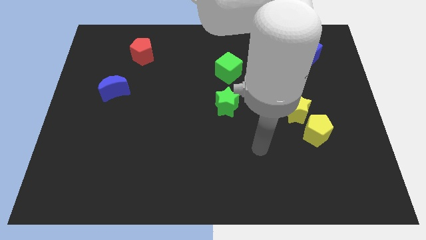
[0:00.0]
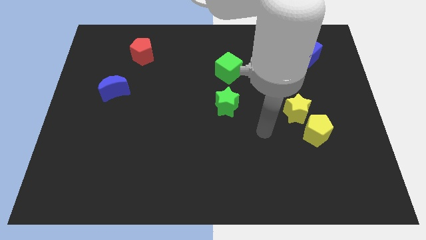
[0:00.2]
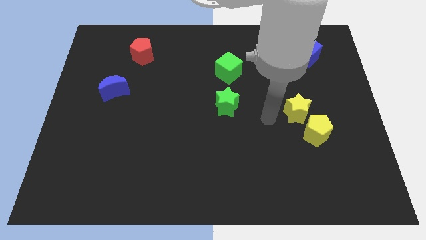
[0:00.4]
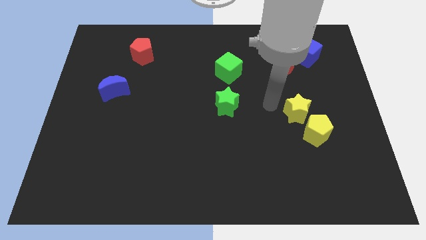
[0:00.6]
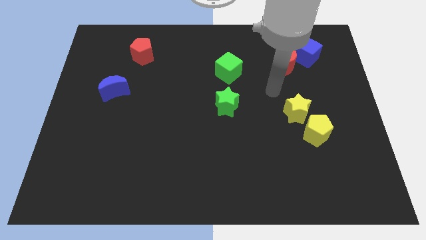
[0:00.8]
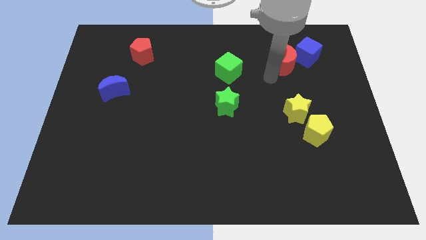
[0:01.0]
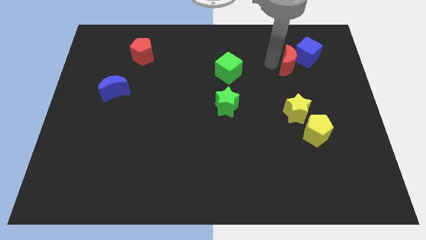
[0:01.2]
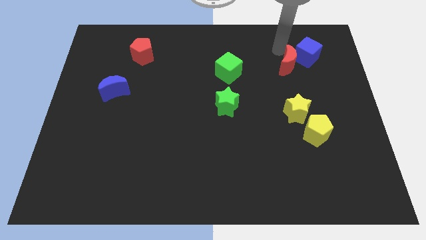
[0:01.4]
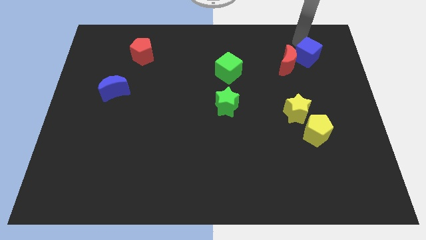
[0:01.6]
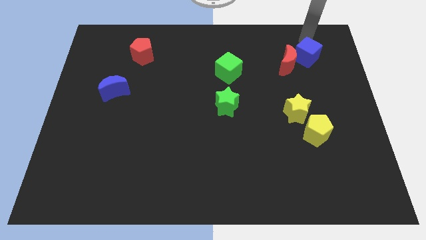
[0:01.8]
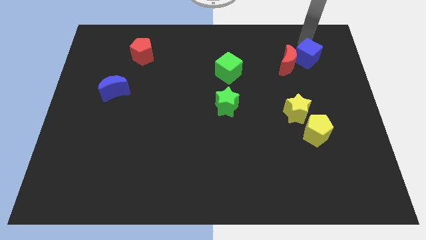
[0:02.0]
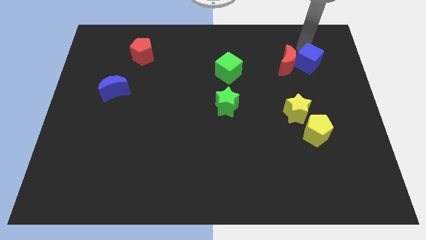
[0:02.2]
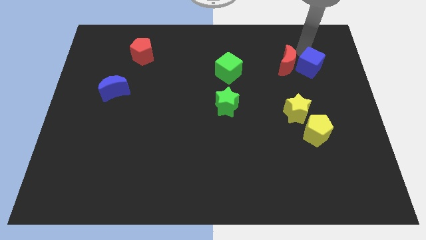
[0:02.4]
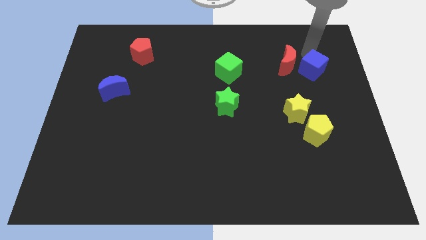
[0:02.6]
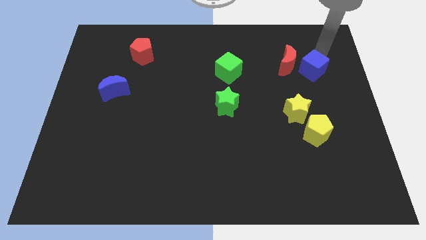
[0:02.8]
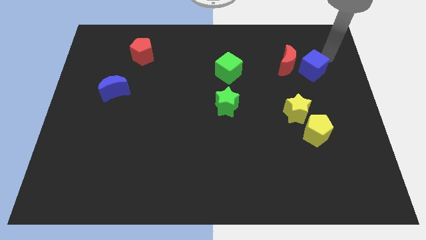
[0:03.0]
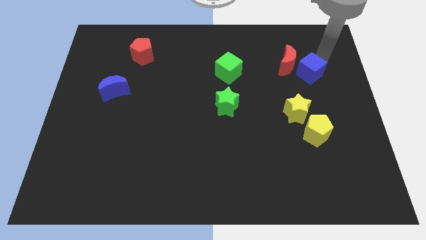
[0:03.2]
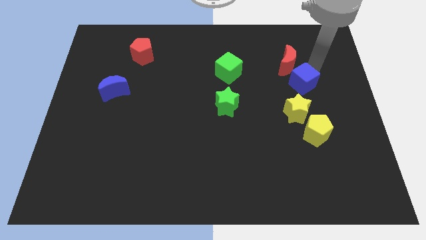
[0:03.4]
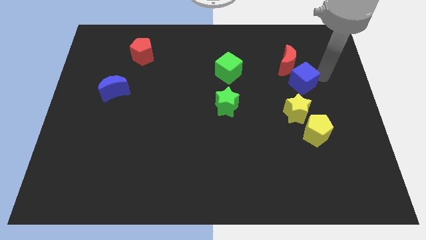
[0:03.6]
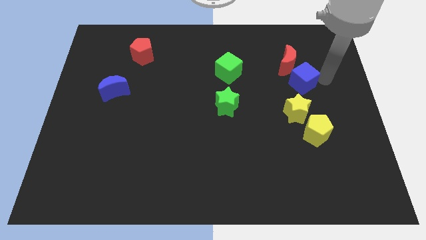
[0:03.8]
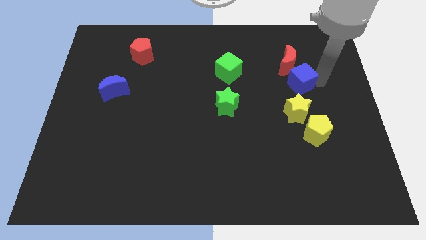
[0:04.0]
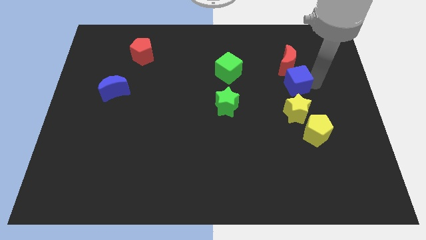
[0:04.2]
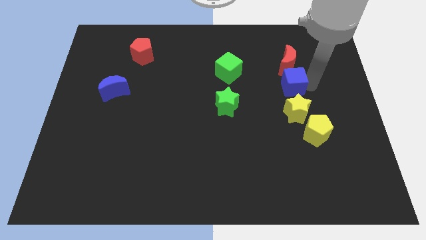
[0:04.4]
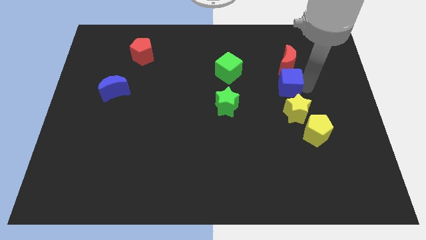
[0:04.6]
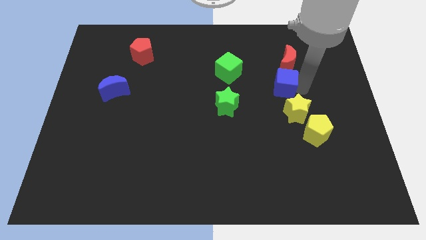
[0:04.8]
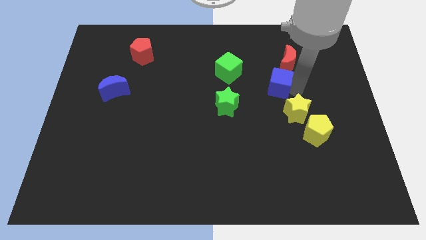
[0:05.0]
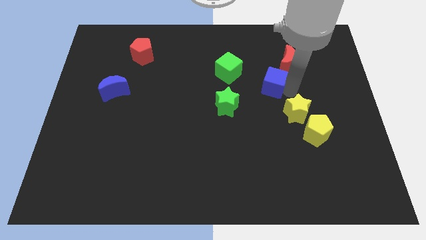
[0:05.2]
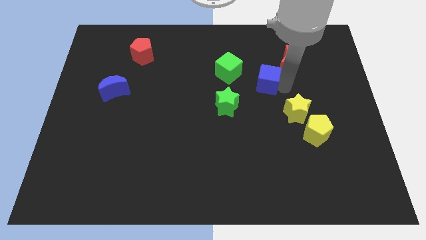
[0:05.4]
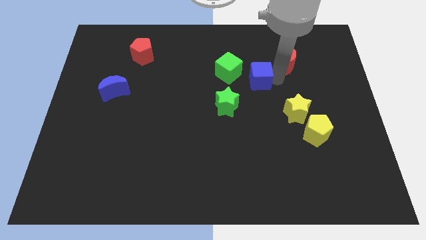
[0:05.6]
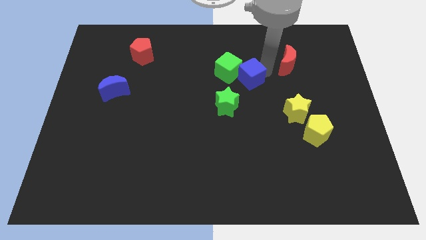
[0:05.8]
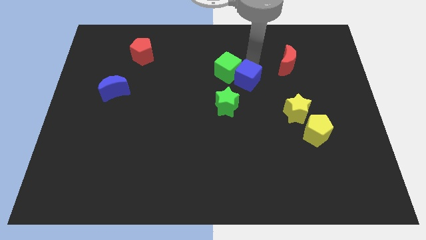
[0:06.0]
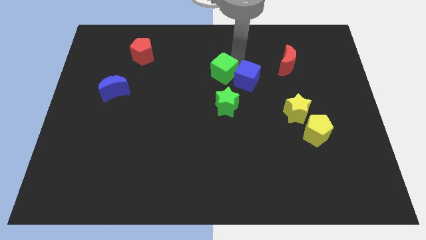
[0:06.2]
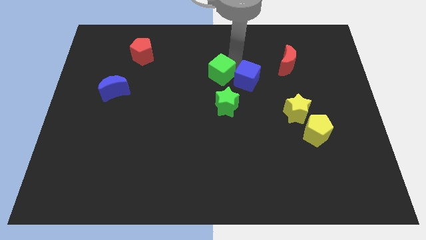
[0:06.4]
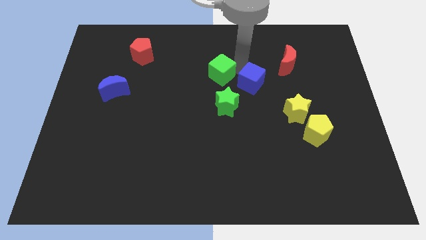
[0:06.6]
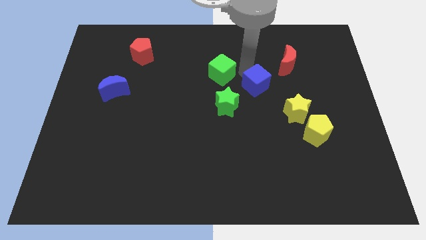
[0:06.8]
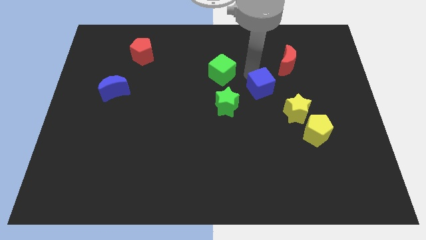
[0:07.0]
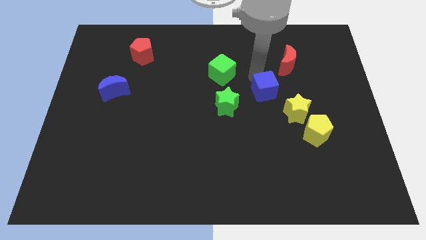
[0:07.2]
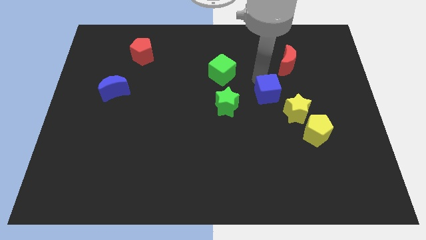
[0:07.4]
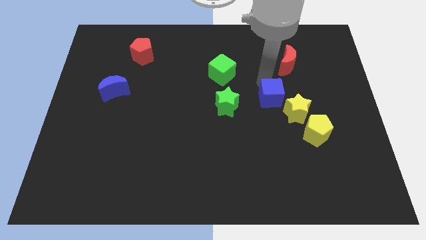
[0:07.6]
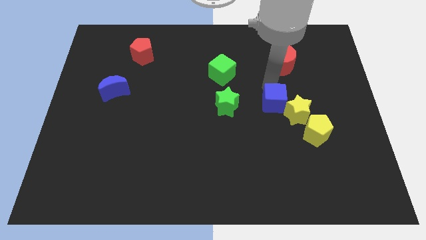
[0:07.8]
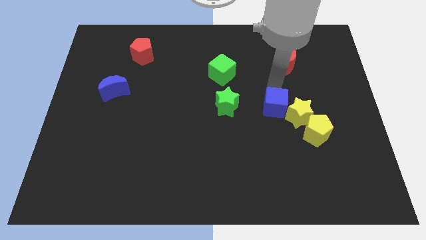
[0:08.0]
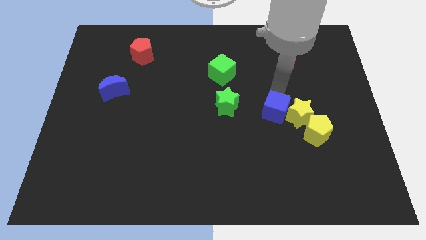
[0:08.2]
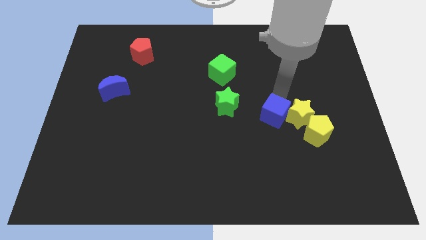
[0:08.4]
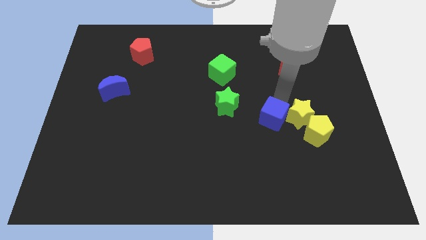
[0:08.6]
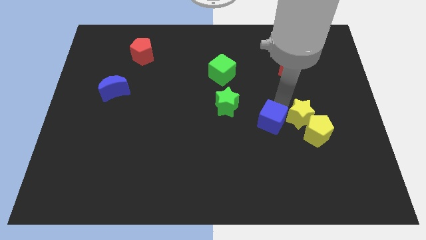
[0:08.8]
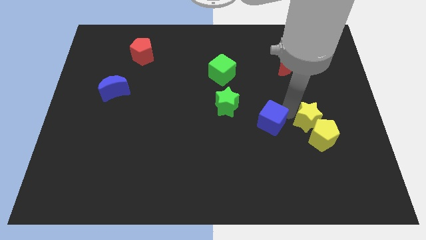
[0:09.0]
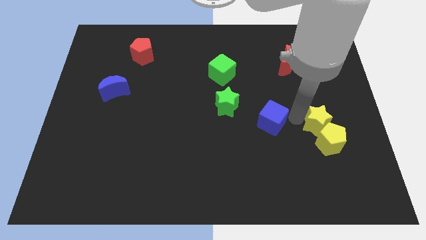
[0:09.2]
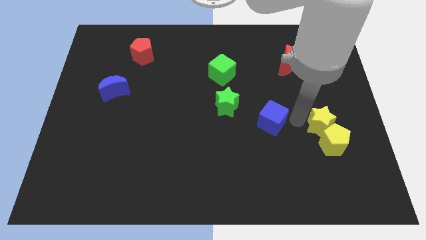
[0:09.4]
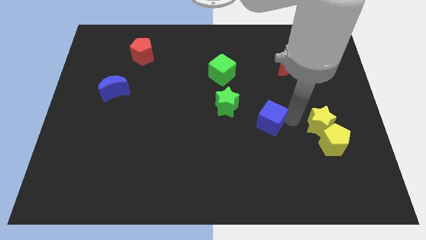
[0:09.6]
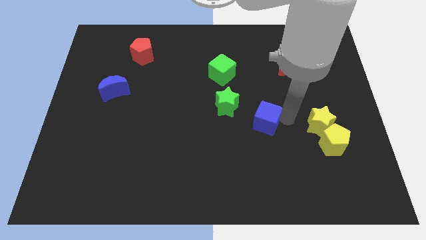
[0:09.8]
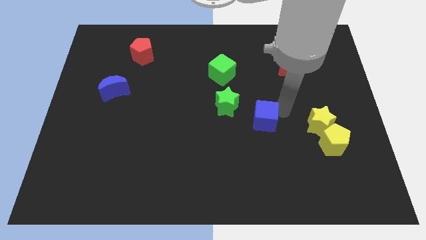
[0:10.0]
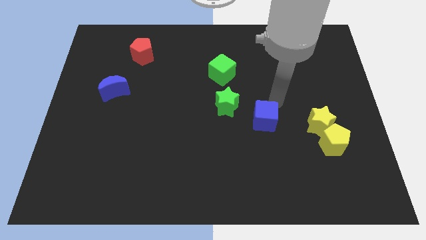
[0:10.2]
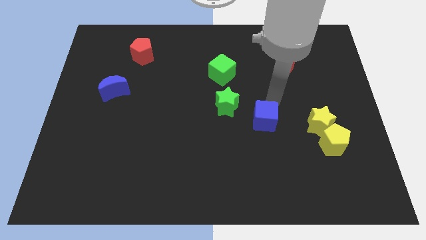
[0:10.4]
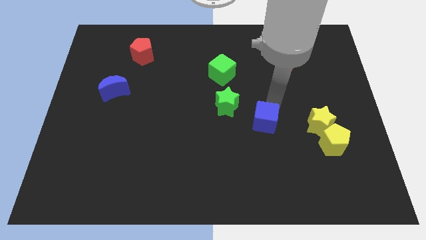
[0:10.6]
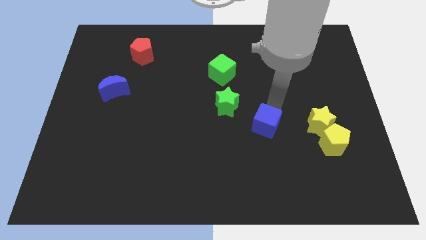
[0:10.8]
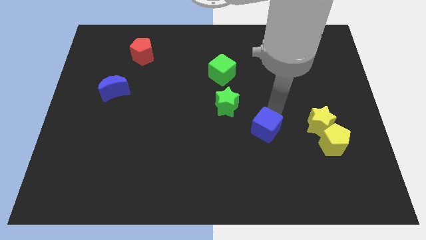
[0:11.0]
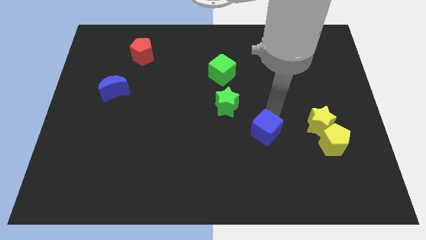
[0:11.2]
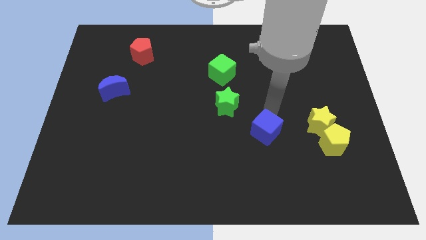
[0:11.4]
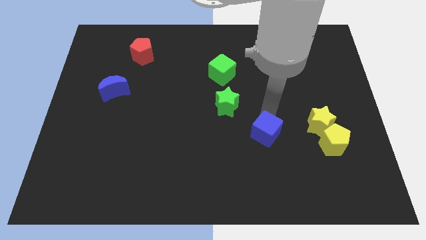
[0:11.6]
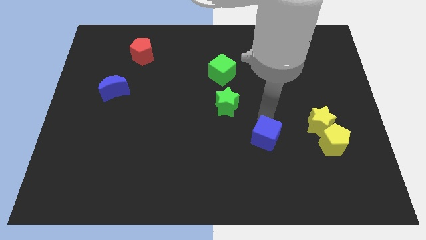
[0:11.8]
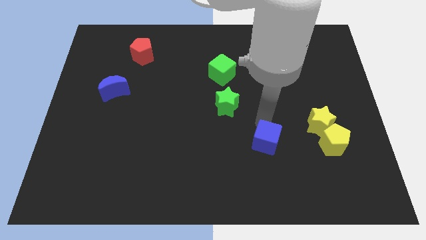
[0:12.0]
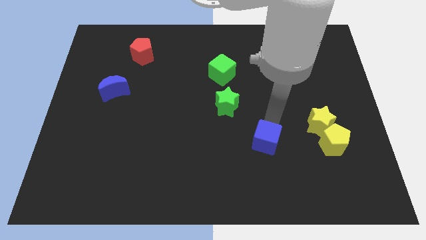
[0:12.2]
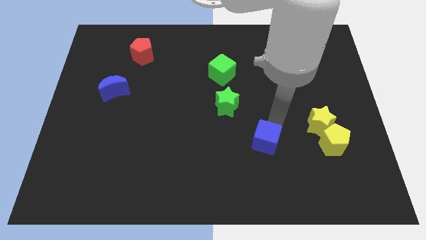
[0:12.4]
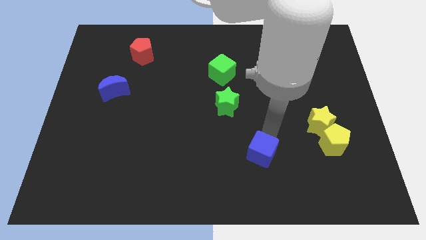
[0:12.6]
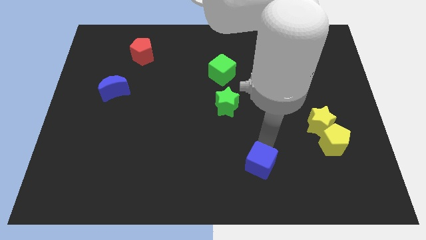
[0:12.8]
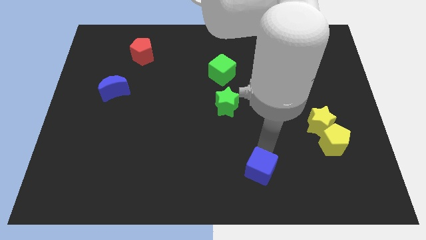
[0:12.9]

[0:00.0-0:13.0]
slide the blue cube to the bottom
